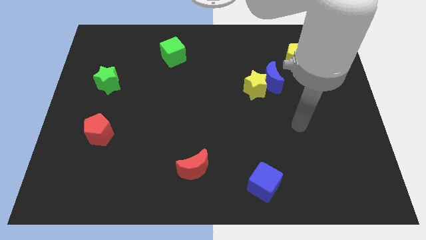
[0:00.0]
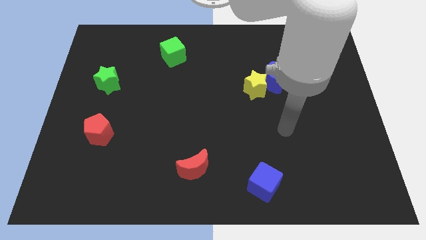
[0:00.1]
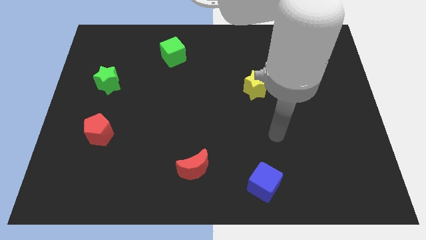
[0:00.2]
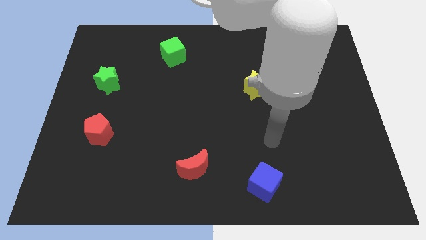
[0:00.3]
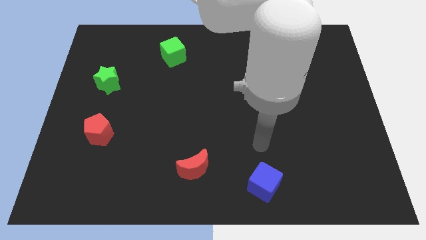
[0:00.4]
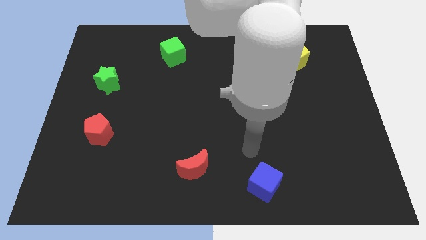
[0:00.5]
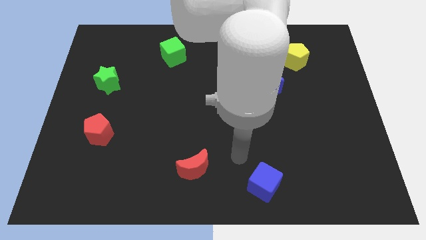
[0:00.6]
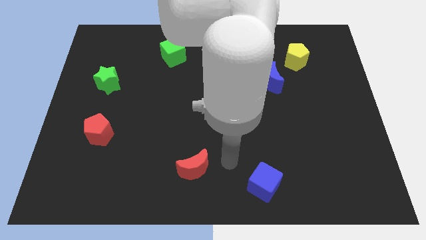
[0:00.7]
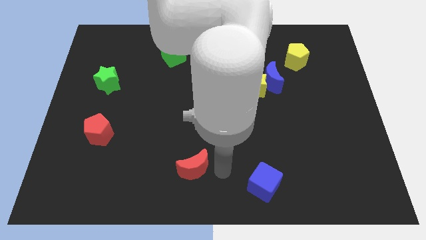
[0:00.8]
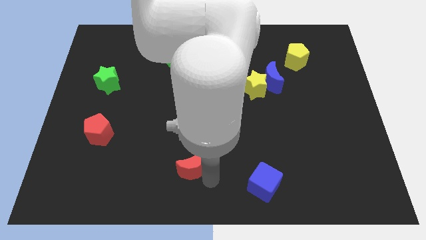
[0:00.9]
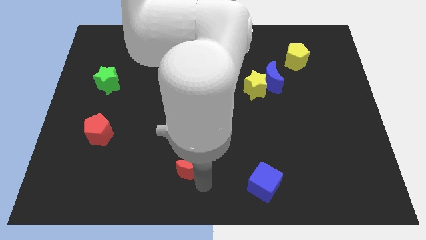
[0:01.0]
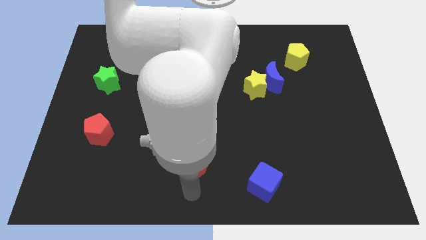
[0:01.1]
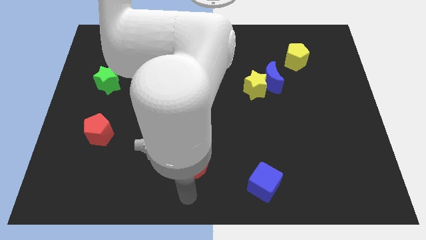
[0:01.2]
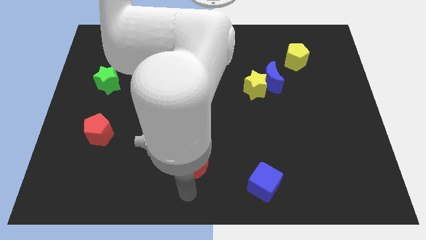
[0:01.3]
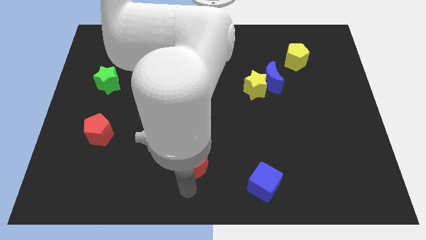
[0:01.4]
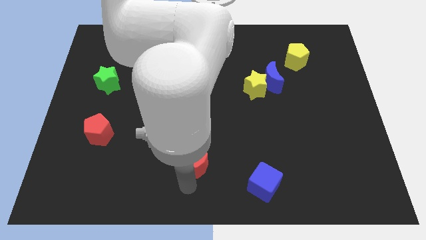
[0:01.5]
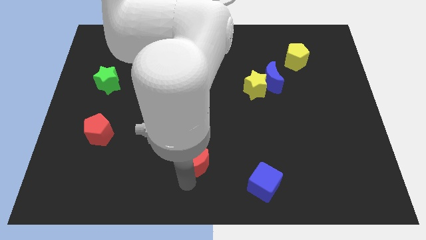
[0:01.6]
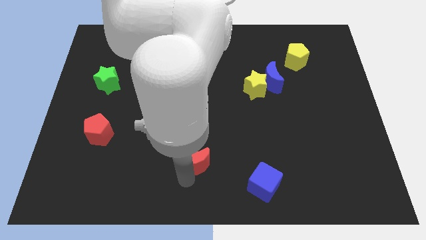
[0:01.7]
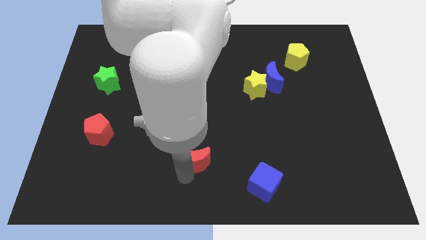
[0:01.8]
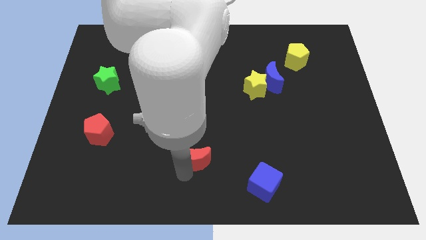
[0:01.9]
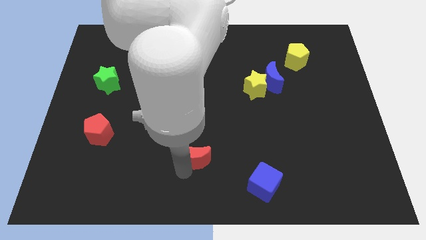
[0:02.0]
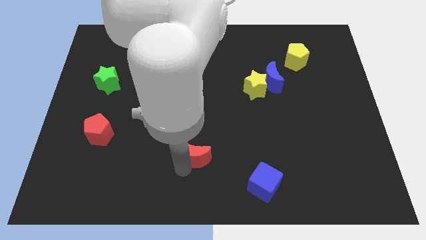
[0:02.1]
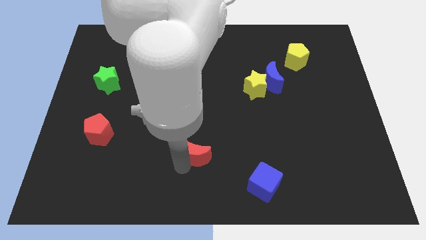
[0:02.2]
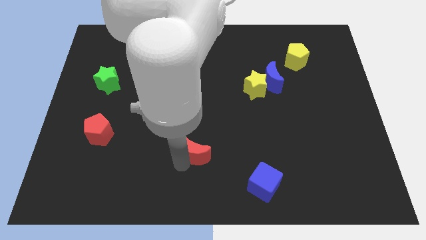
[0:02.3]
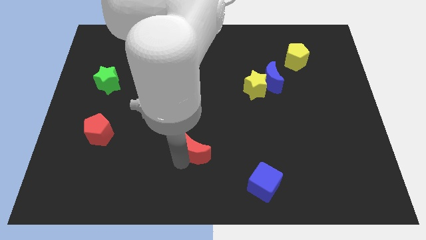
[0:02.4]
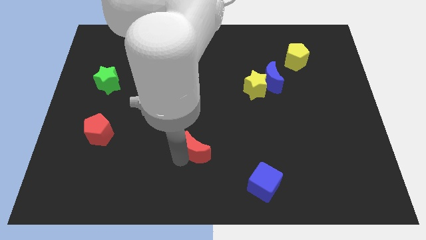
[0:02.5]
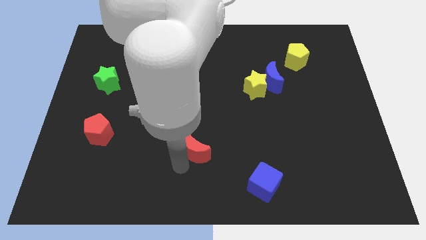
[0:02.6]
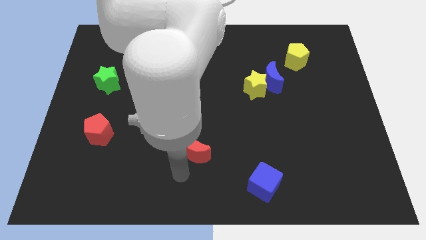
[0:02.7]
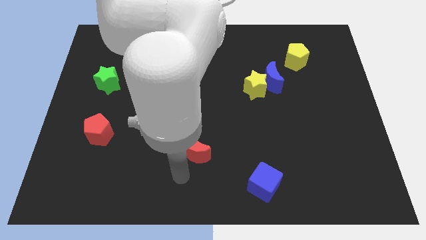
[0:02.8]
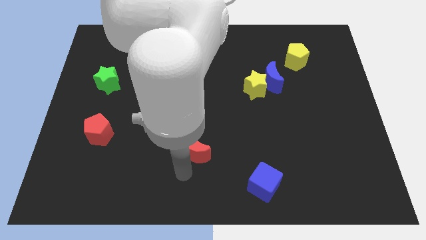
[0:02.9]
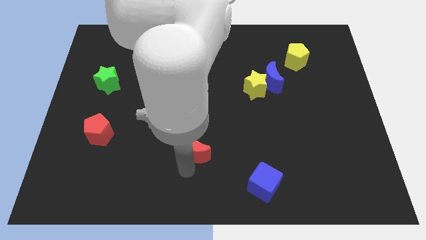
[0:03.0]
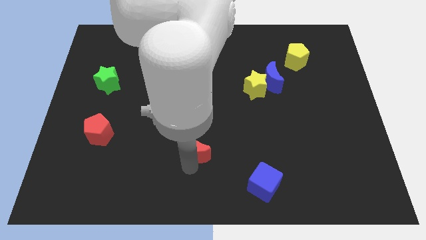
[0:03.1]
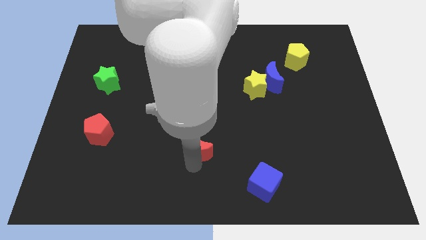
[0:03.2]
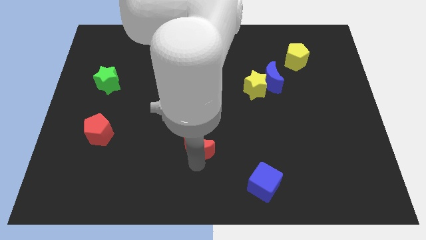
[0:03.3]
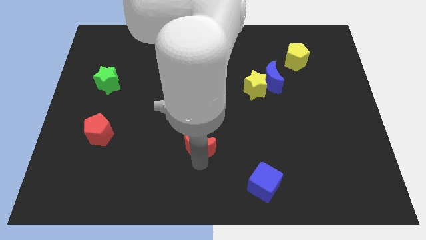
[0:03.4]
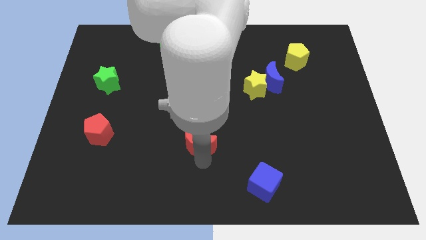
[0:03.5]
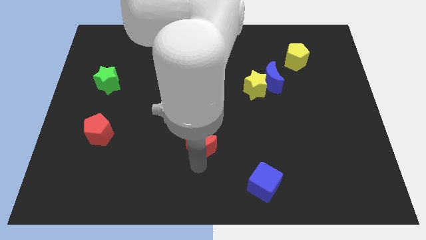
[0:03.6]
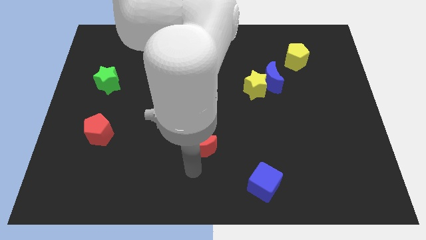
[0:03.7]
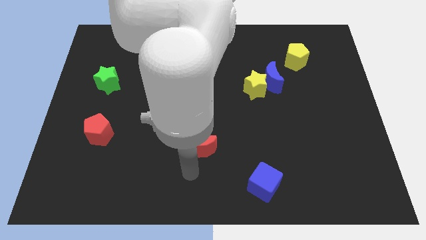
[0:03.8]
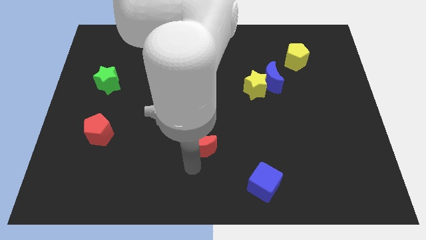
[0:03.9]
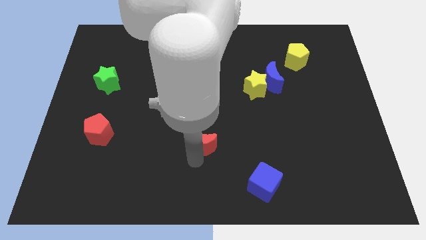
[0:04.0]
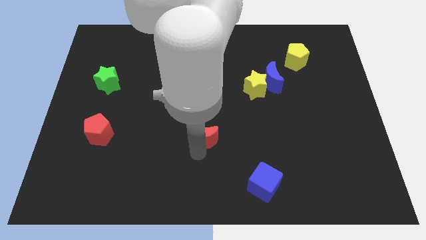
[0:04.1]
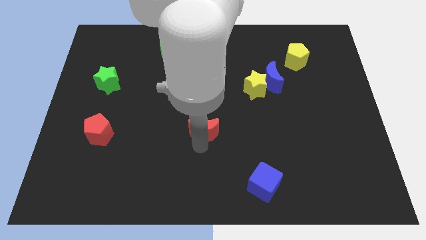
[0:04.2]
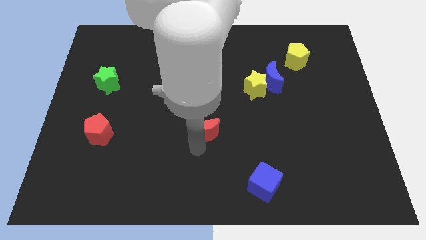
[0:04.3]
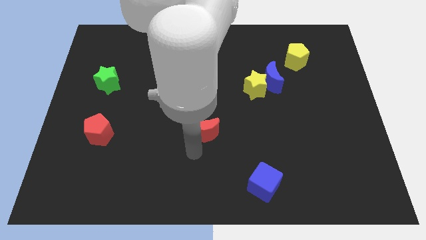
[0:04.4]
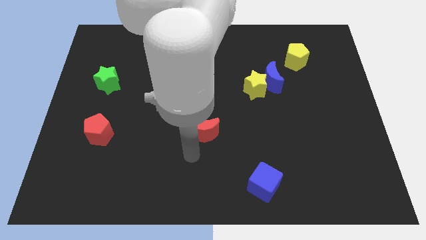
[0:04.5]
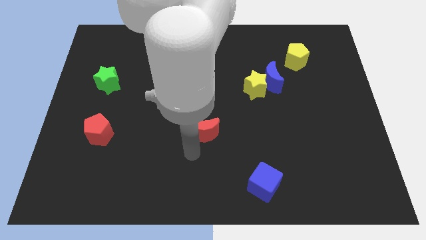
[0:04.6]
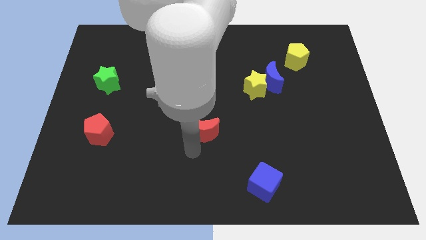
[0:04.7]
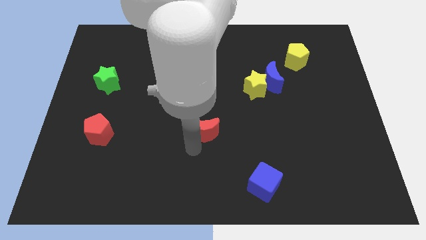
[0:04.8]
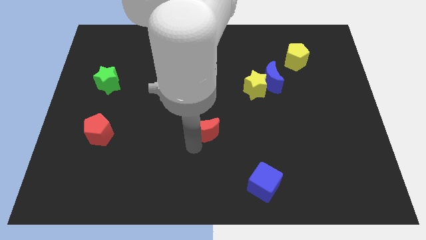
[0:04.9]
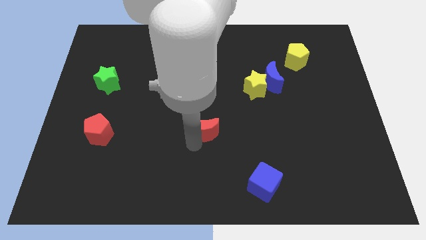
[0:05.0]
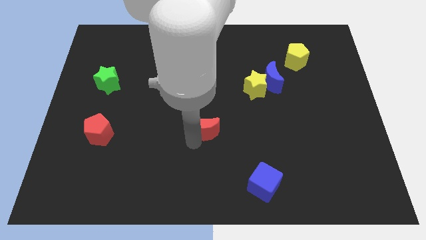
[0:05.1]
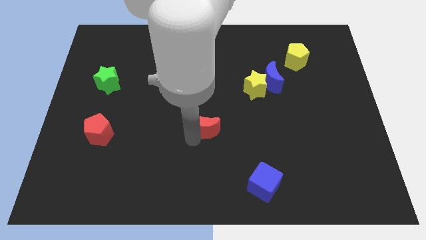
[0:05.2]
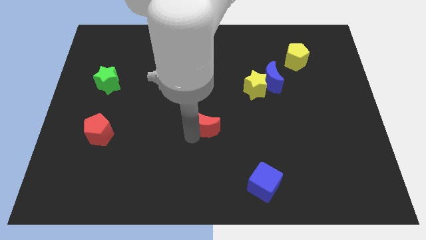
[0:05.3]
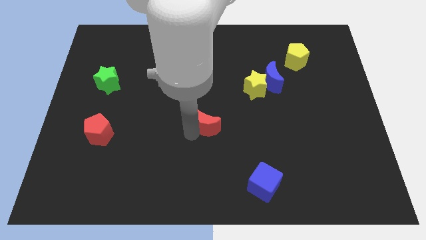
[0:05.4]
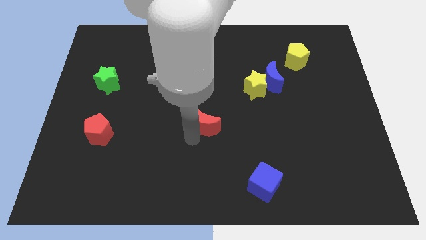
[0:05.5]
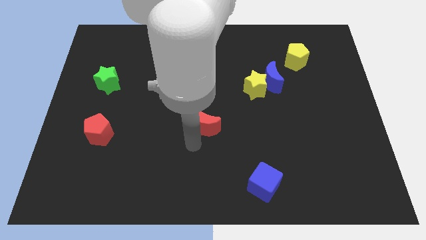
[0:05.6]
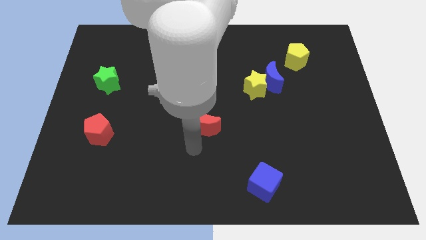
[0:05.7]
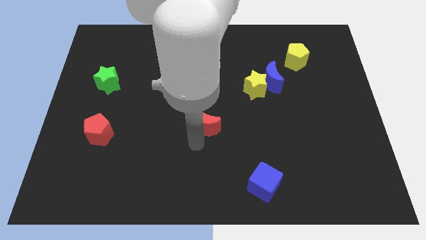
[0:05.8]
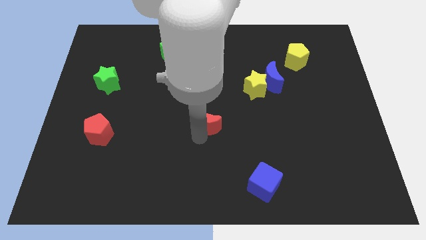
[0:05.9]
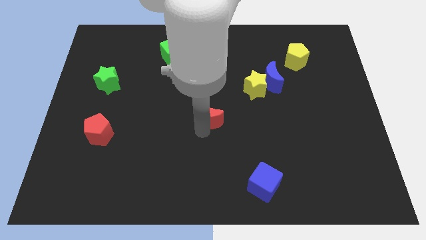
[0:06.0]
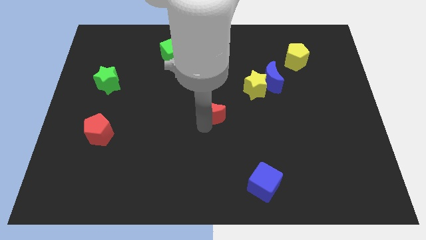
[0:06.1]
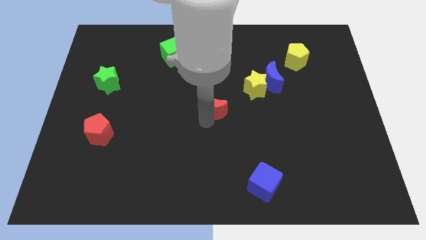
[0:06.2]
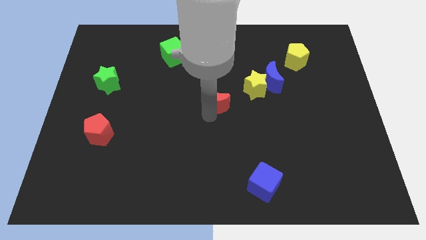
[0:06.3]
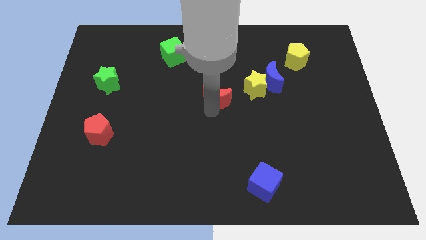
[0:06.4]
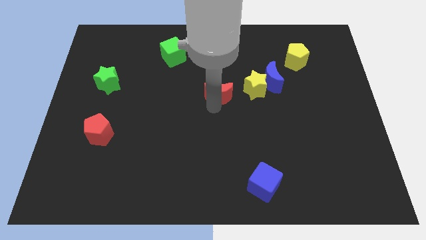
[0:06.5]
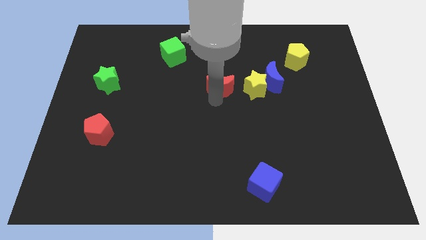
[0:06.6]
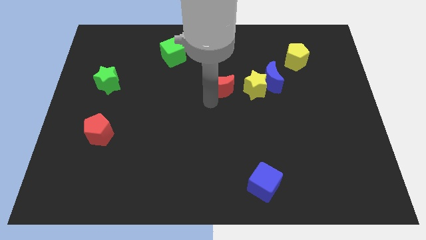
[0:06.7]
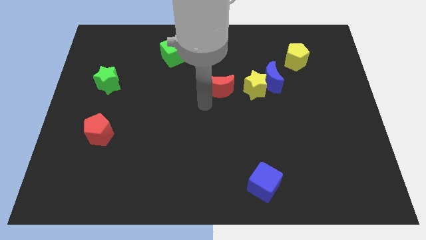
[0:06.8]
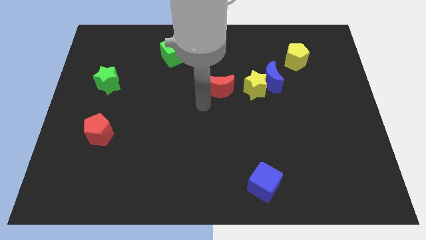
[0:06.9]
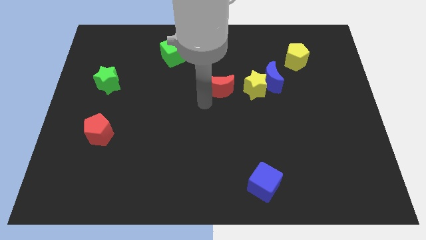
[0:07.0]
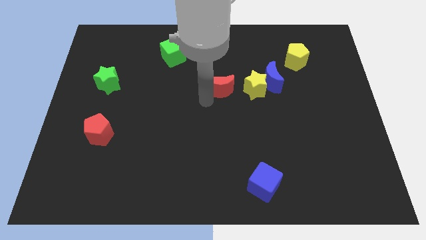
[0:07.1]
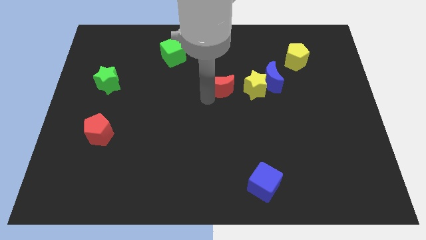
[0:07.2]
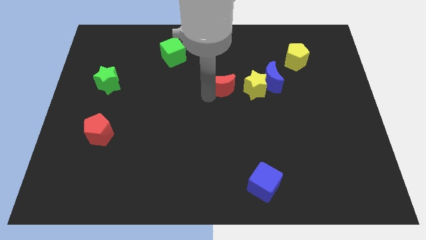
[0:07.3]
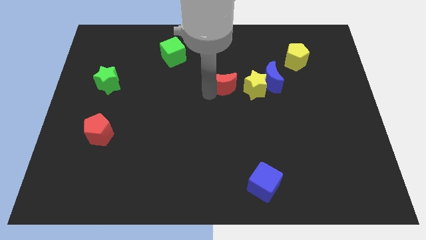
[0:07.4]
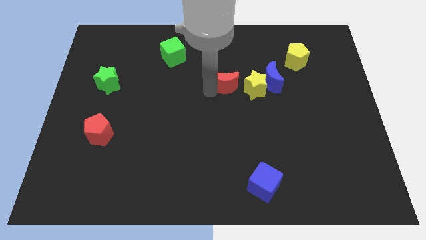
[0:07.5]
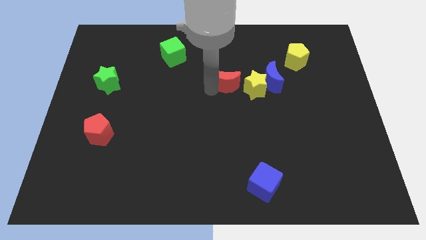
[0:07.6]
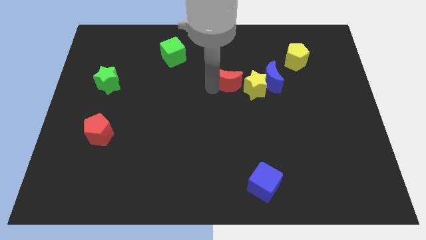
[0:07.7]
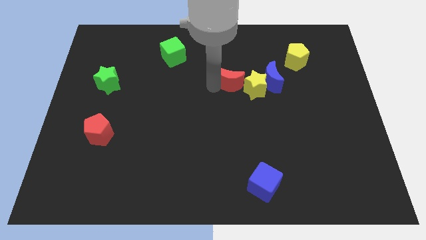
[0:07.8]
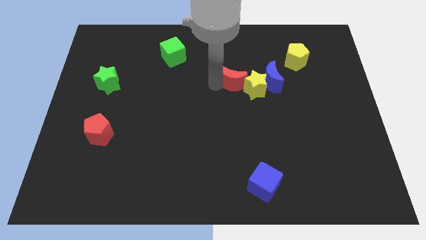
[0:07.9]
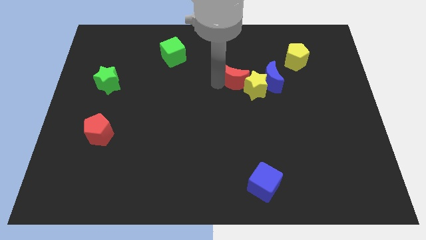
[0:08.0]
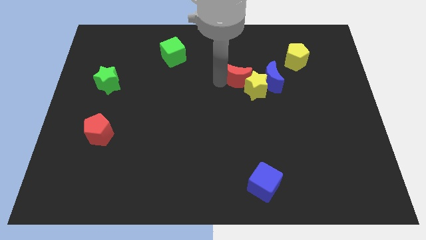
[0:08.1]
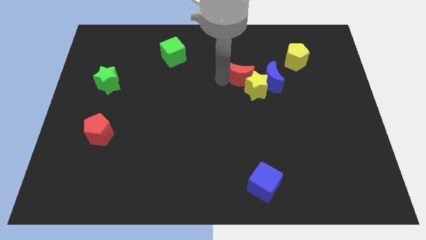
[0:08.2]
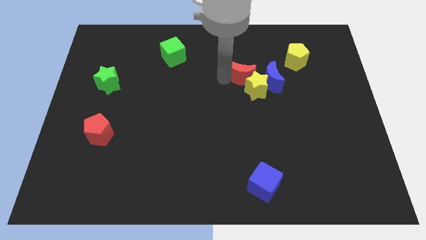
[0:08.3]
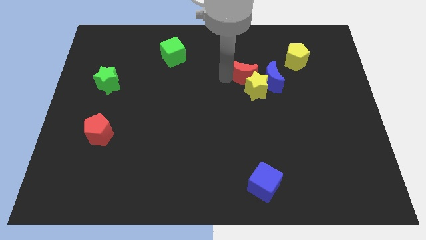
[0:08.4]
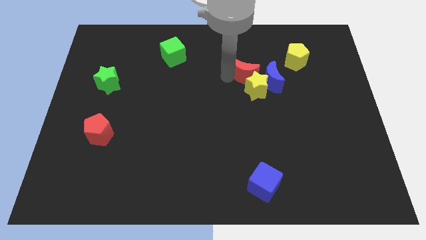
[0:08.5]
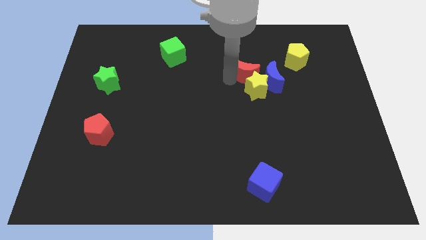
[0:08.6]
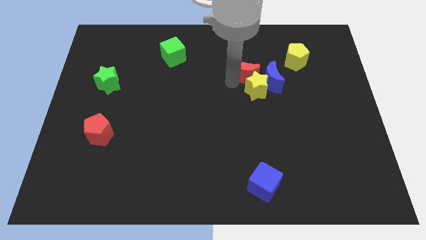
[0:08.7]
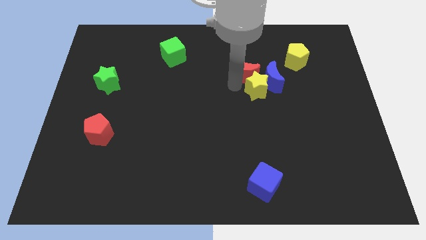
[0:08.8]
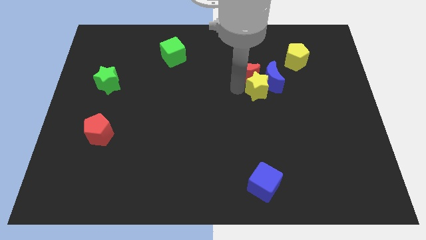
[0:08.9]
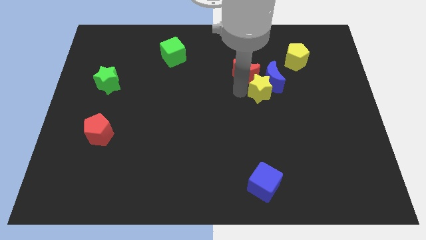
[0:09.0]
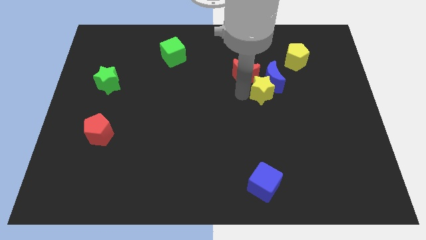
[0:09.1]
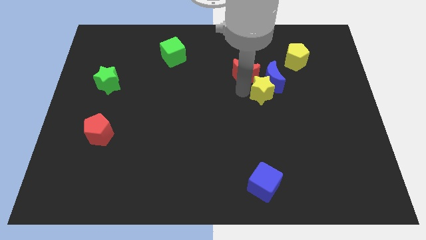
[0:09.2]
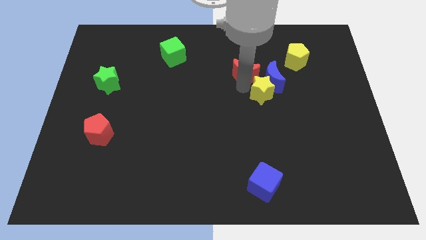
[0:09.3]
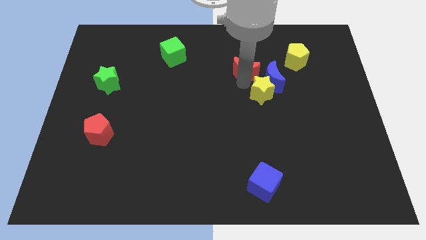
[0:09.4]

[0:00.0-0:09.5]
push the red moon to the left side of the yellow pentagon
